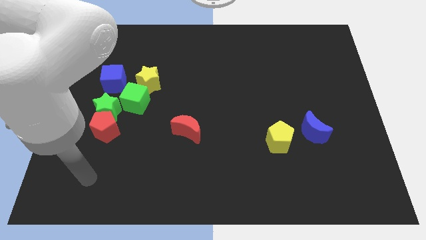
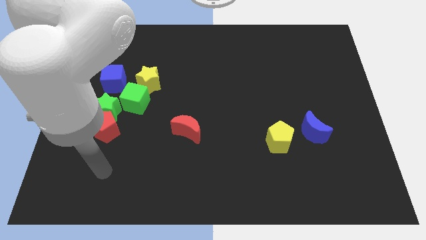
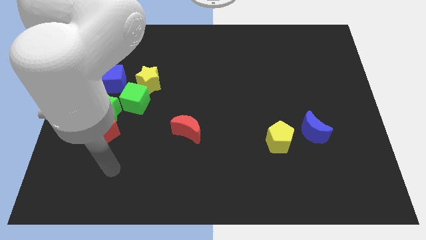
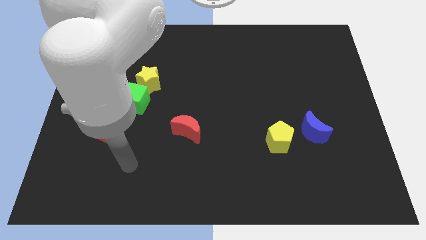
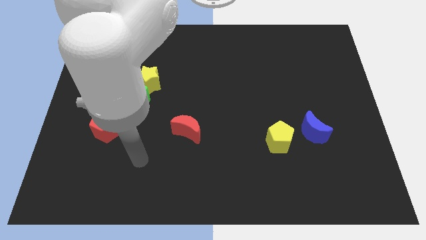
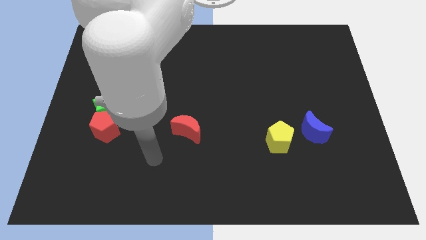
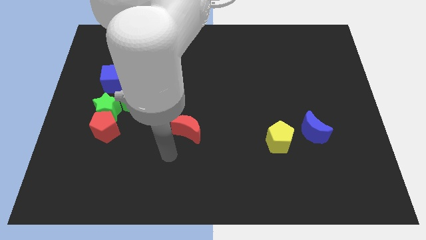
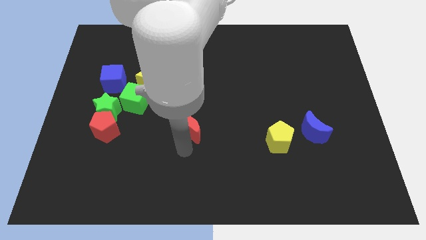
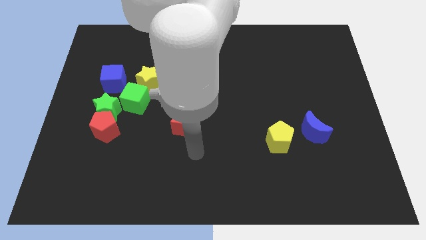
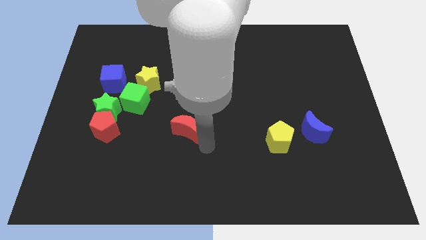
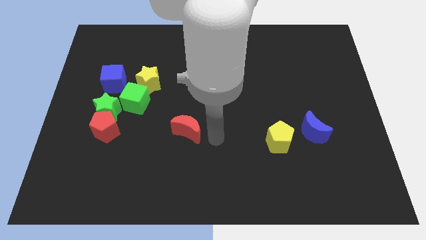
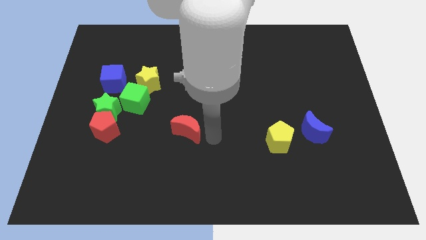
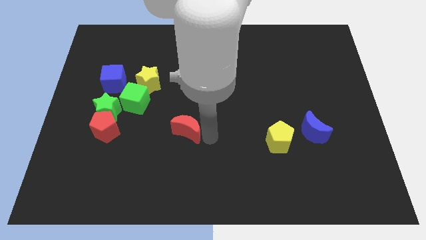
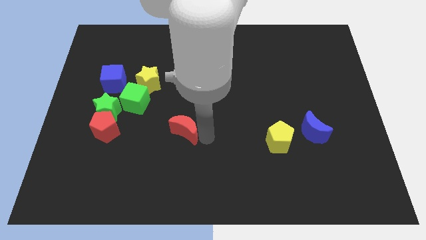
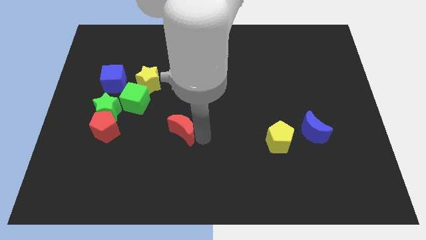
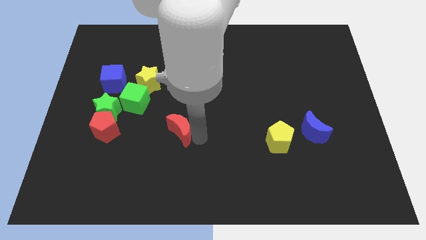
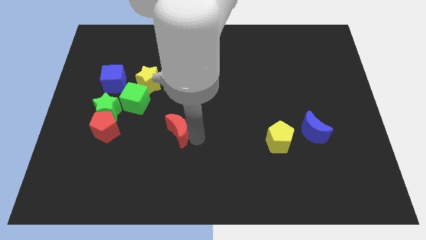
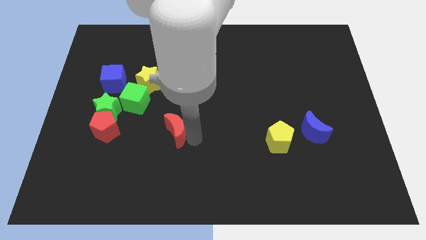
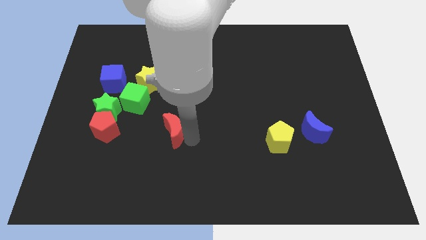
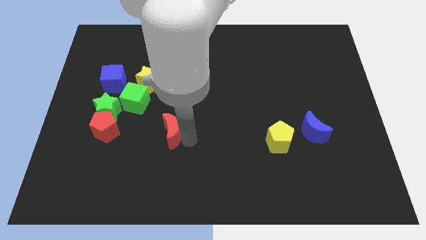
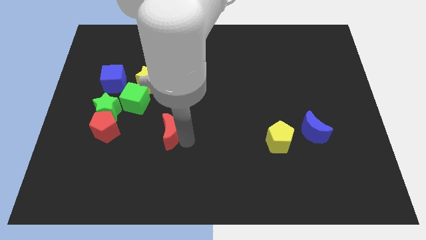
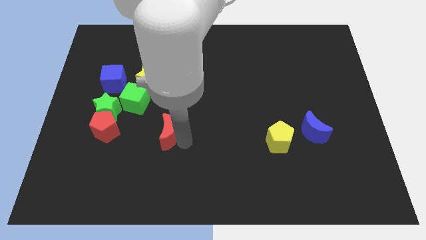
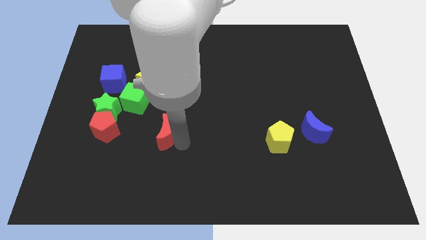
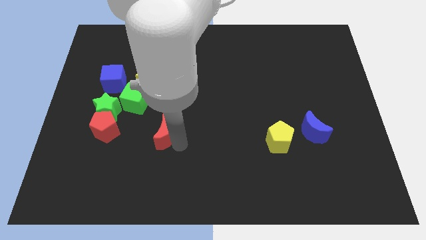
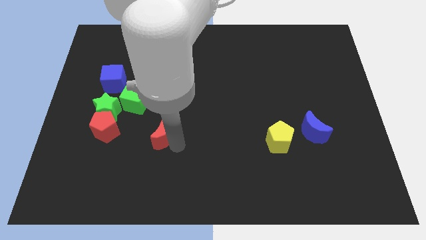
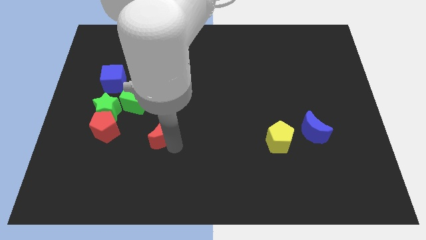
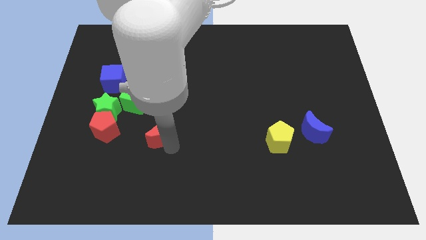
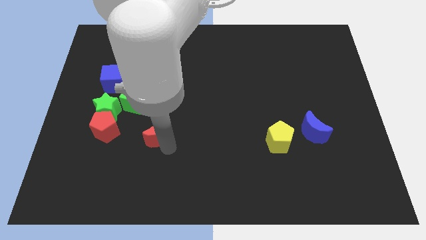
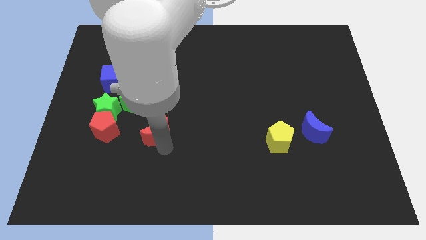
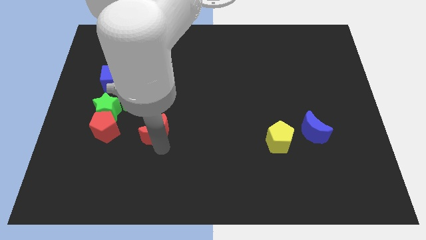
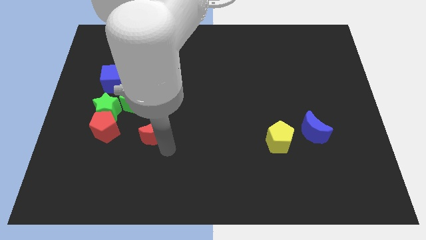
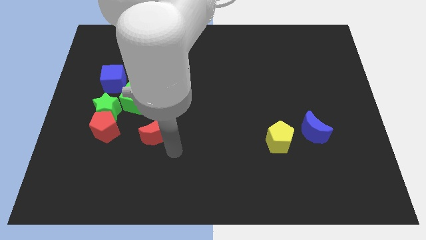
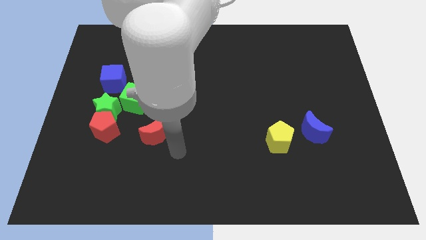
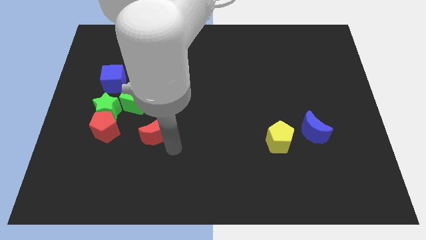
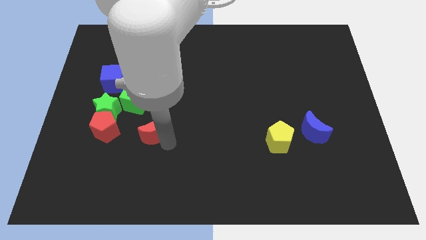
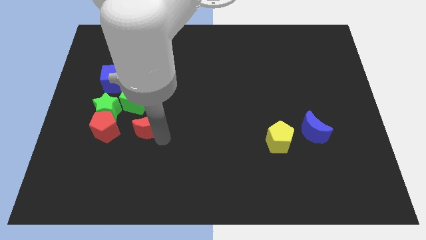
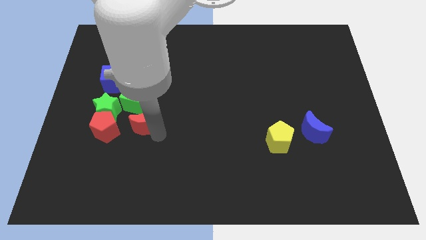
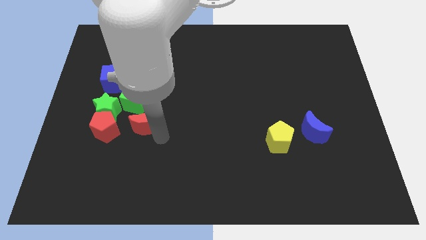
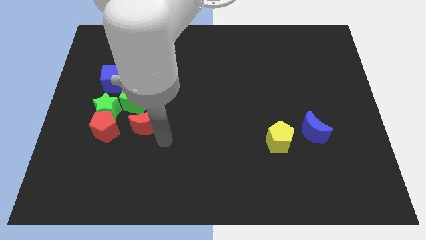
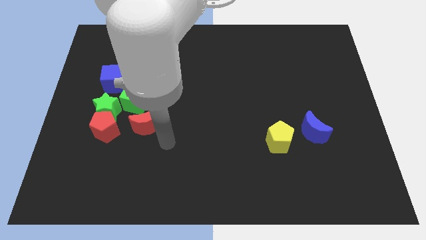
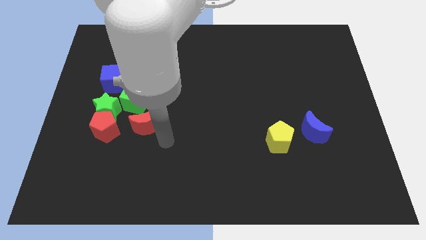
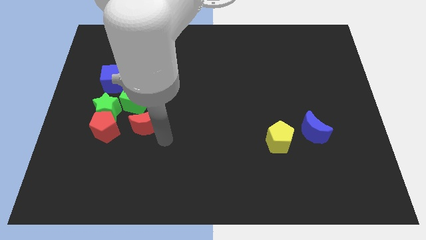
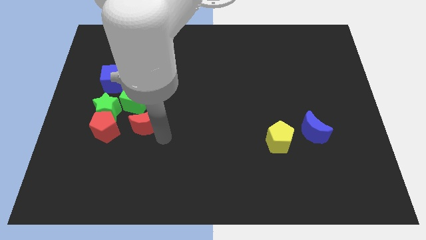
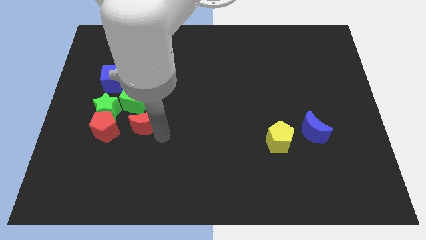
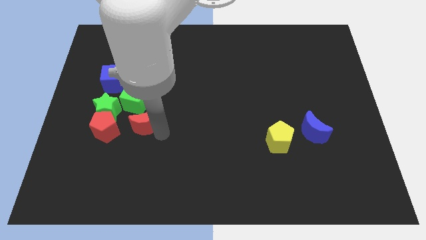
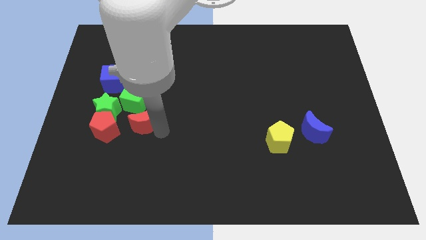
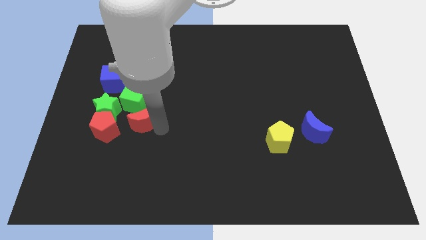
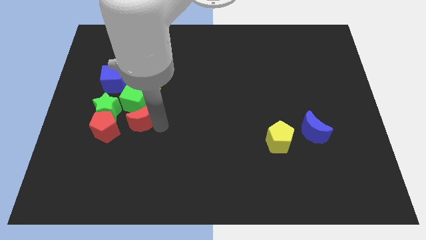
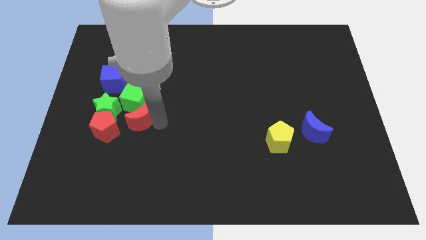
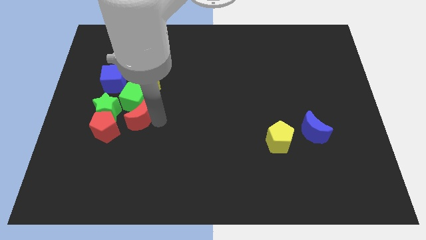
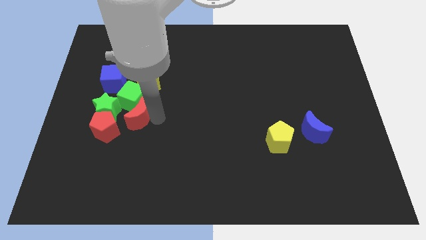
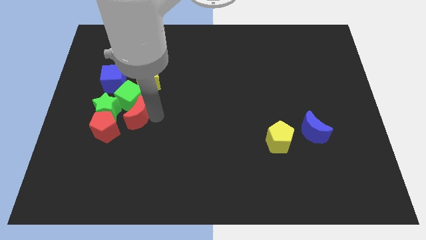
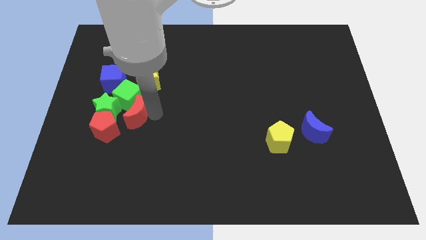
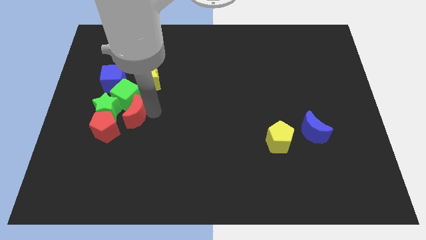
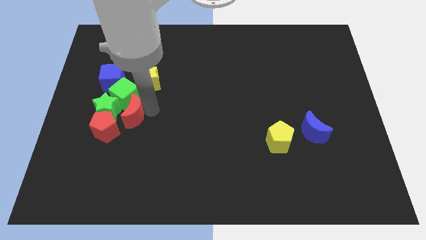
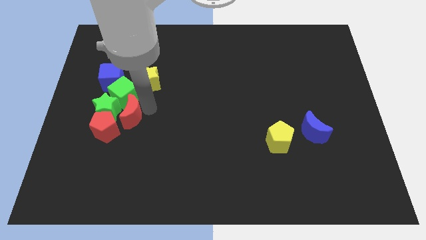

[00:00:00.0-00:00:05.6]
slide the red moon close to the green star

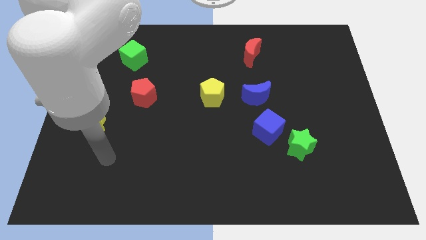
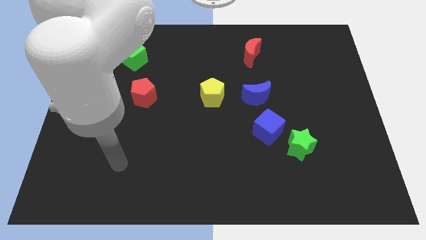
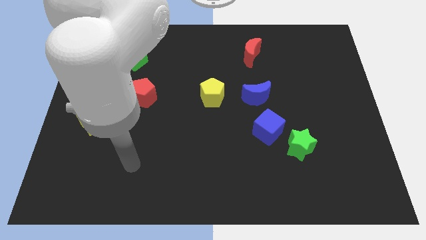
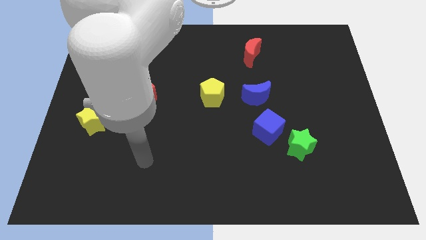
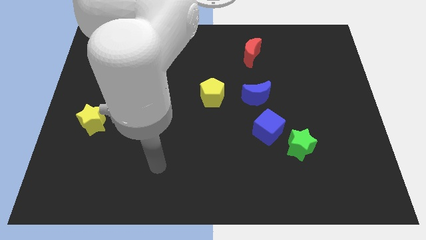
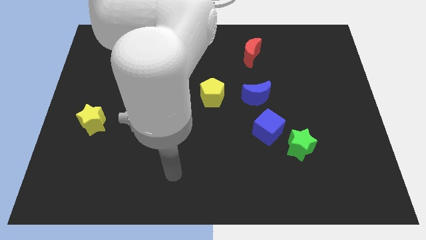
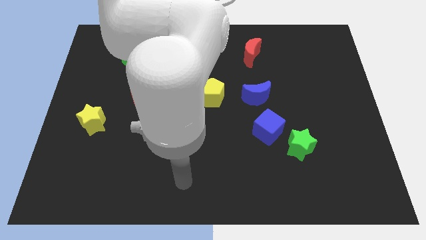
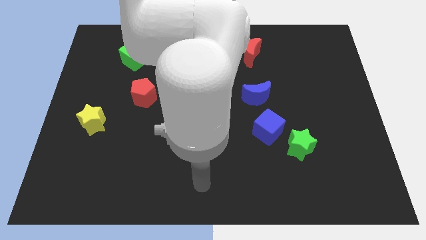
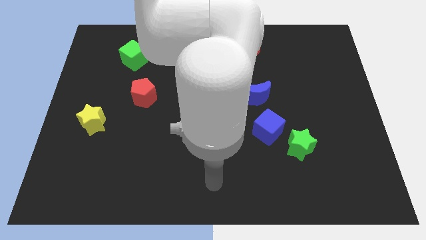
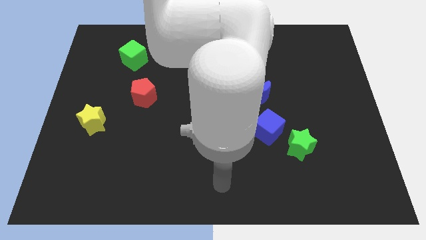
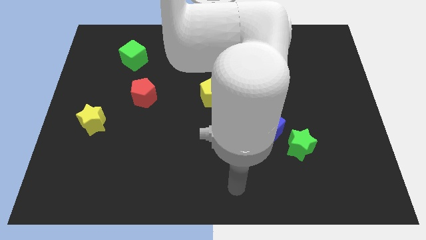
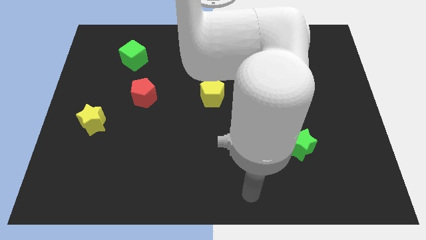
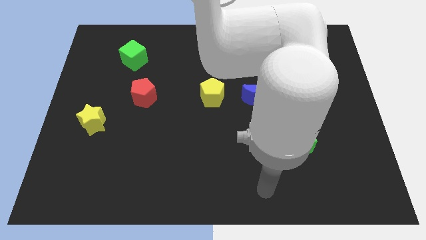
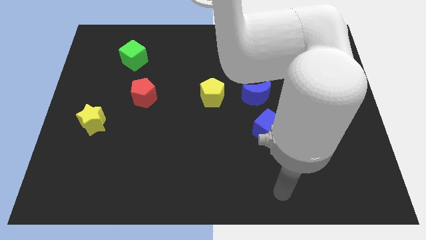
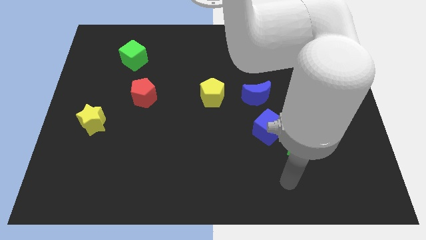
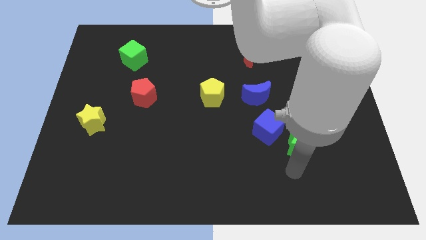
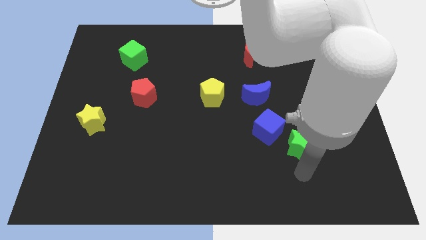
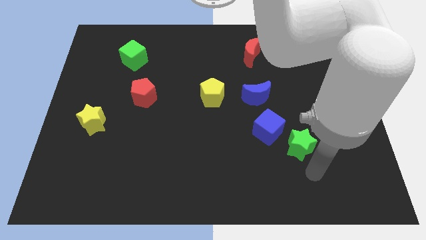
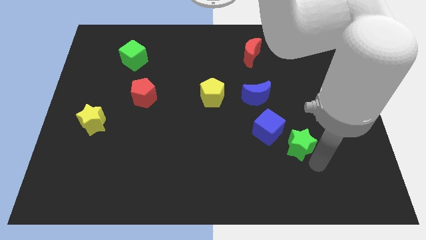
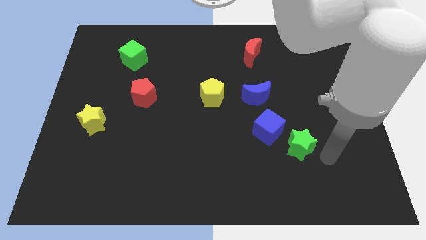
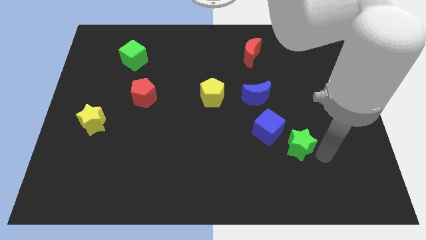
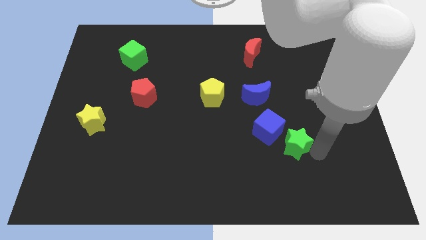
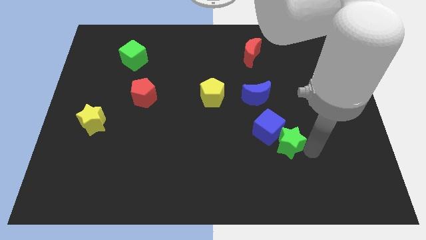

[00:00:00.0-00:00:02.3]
put the green star next to the blue cube
